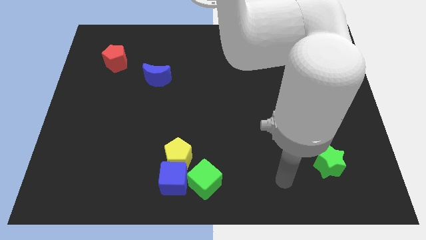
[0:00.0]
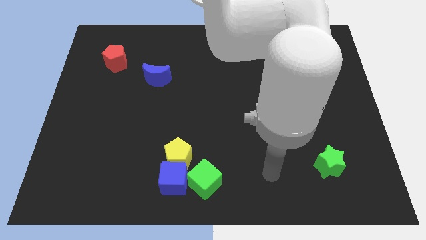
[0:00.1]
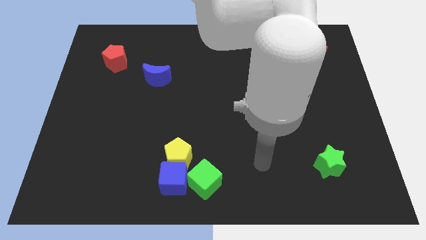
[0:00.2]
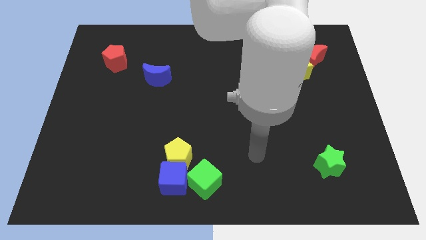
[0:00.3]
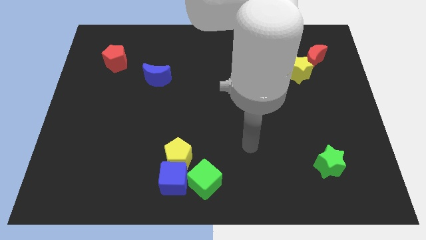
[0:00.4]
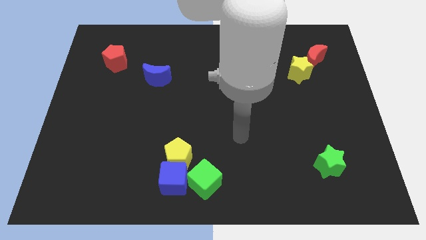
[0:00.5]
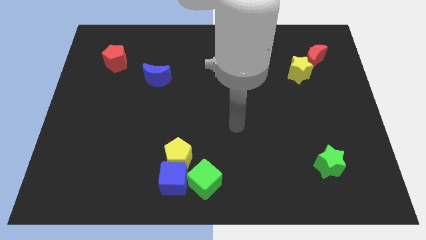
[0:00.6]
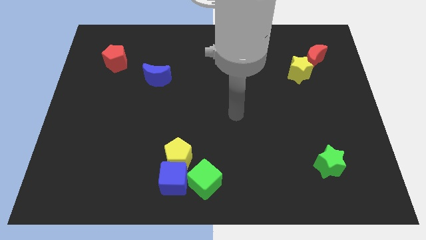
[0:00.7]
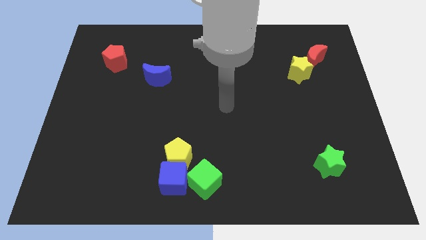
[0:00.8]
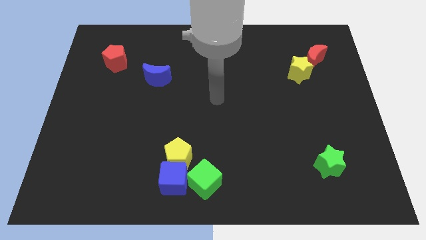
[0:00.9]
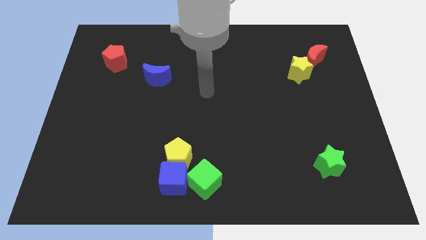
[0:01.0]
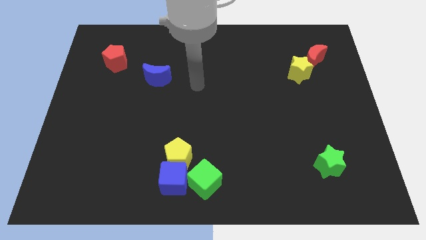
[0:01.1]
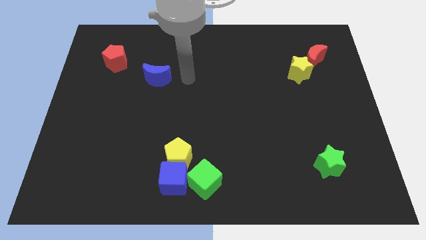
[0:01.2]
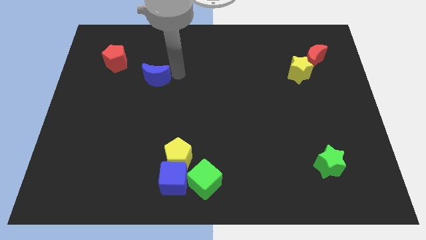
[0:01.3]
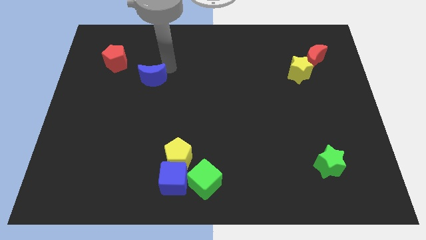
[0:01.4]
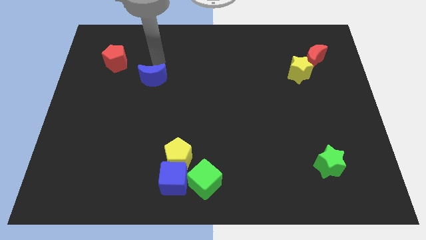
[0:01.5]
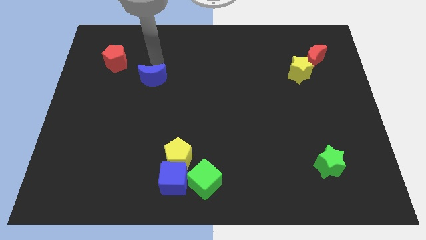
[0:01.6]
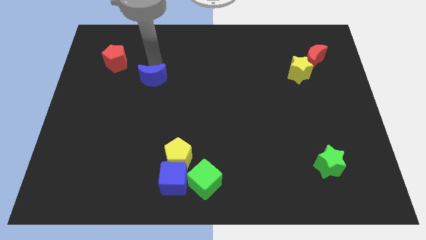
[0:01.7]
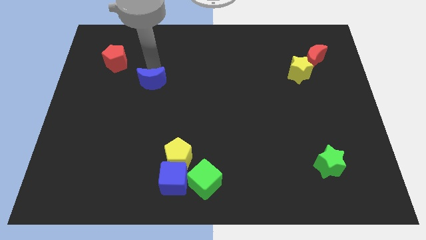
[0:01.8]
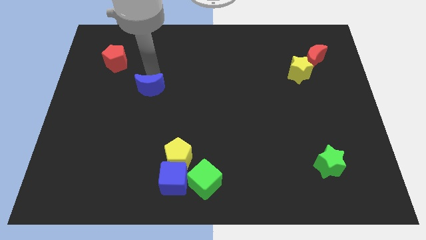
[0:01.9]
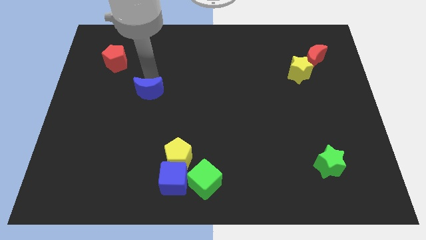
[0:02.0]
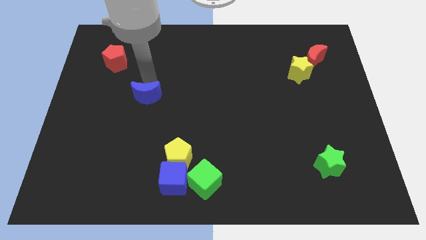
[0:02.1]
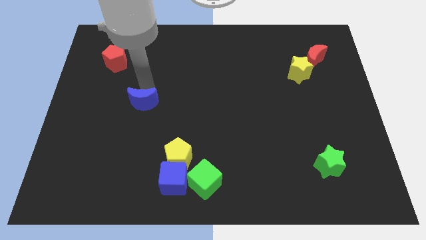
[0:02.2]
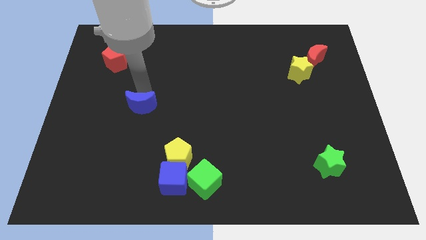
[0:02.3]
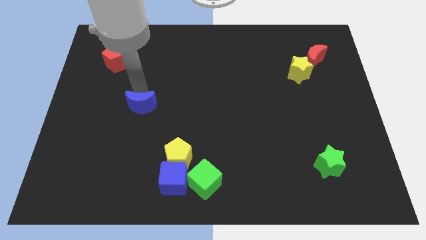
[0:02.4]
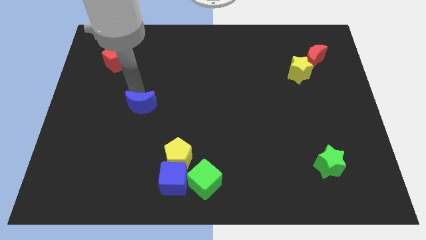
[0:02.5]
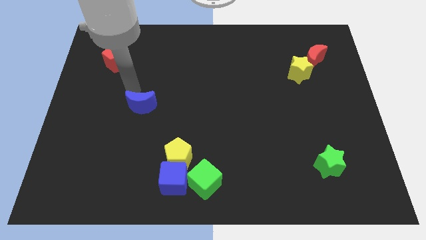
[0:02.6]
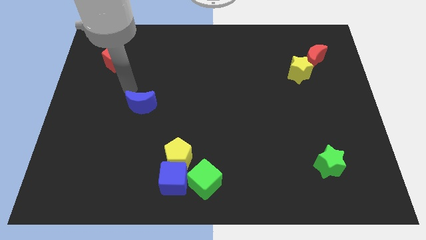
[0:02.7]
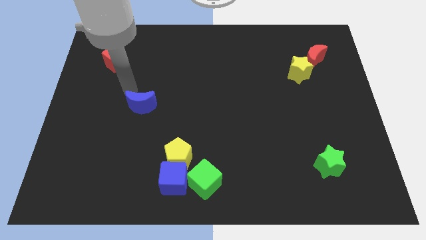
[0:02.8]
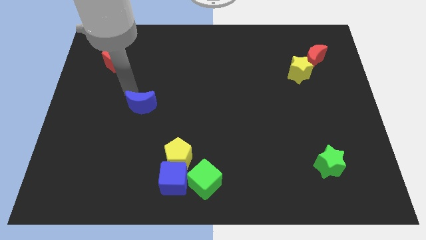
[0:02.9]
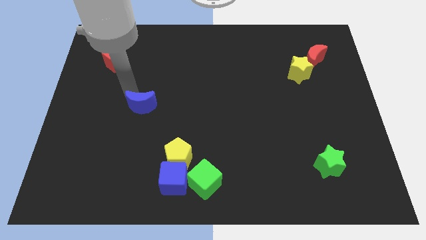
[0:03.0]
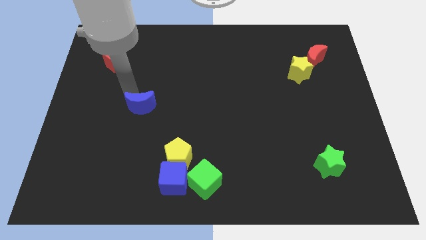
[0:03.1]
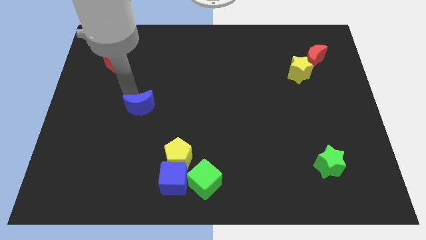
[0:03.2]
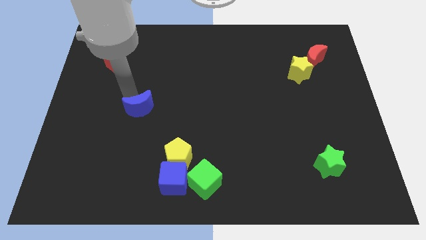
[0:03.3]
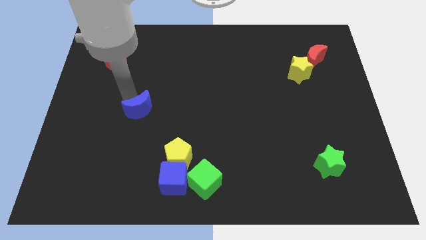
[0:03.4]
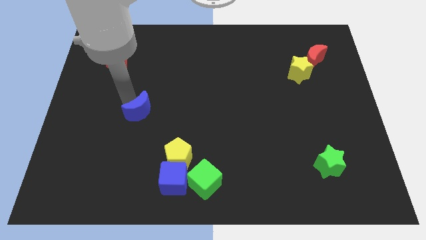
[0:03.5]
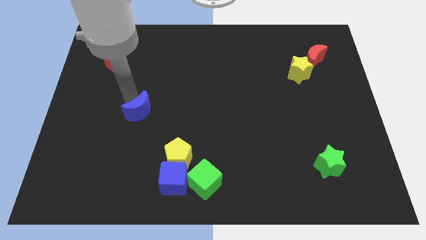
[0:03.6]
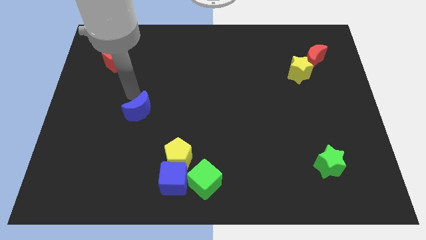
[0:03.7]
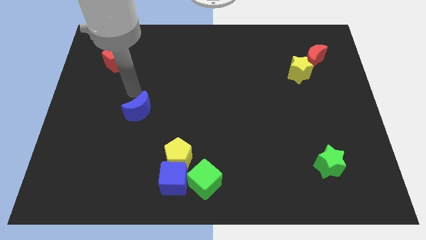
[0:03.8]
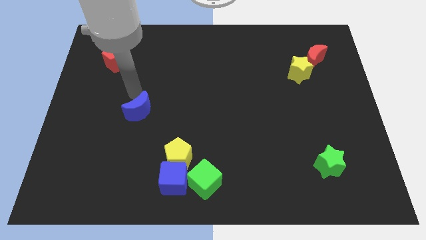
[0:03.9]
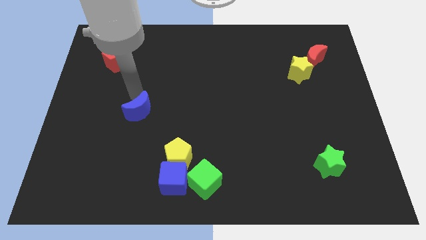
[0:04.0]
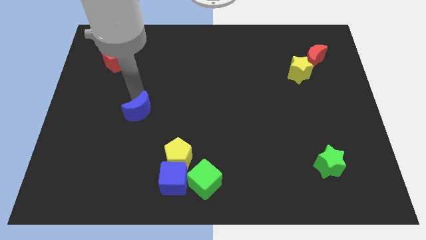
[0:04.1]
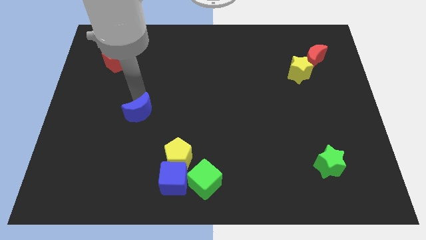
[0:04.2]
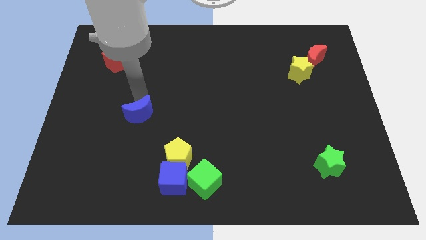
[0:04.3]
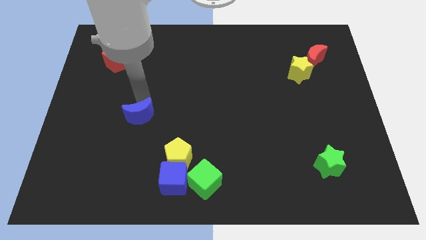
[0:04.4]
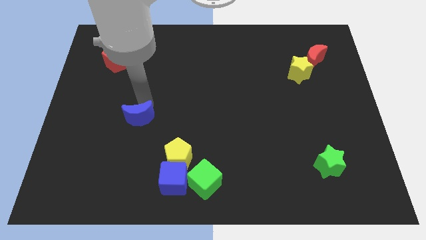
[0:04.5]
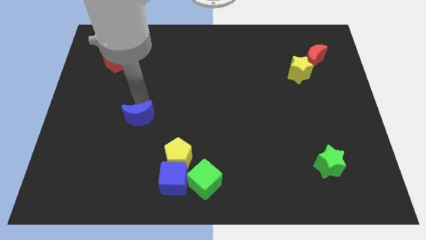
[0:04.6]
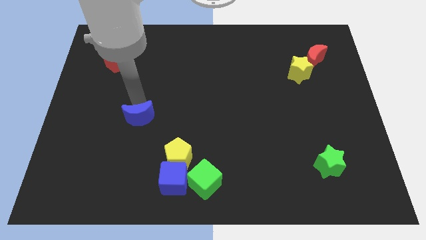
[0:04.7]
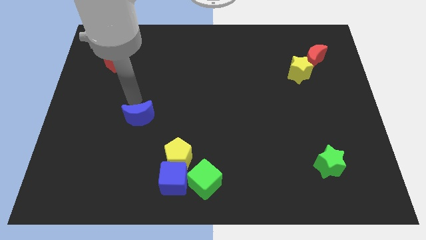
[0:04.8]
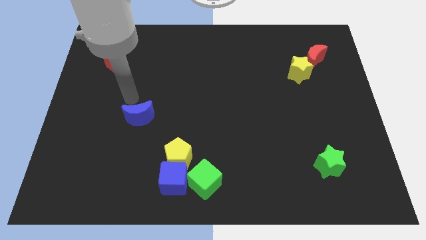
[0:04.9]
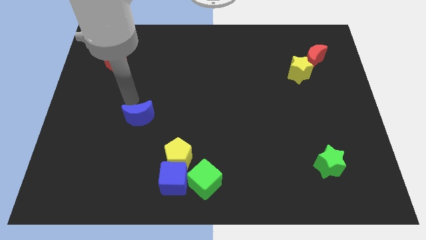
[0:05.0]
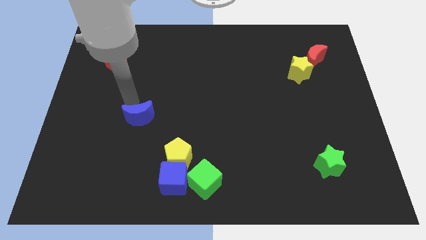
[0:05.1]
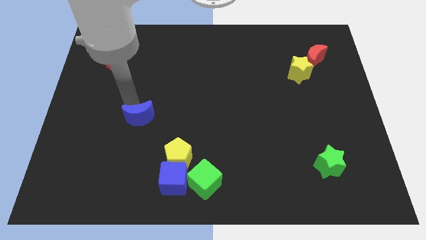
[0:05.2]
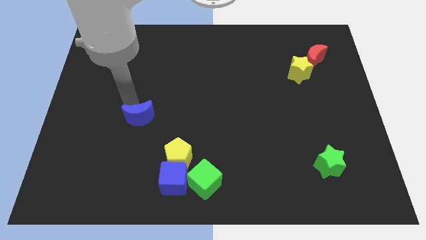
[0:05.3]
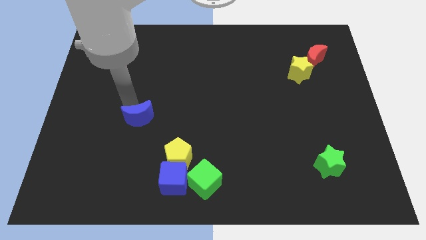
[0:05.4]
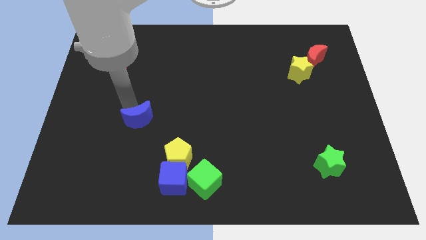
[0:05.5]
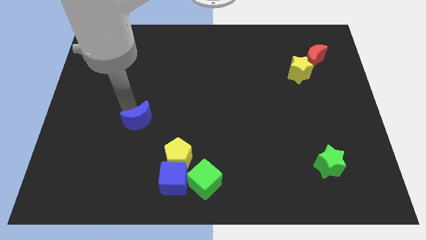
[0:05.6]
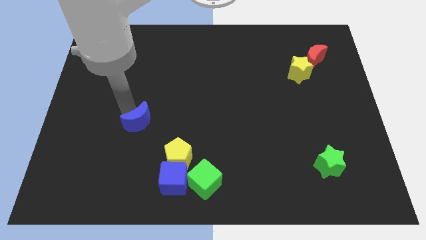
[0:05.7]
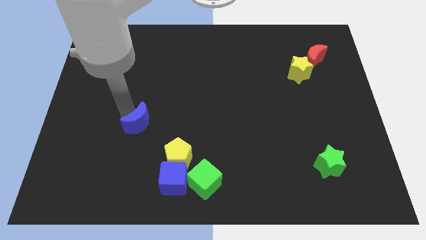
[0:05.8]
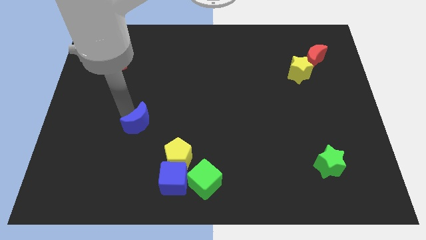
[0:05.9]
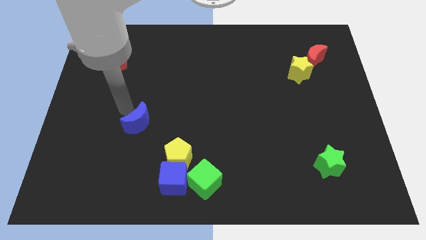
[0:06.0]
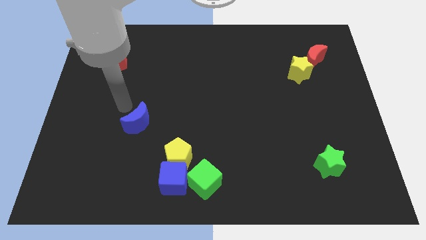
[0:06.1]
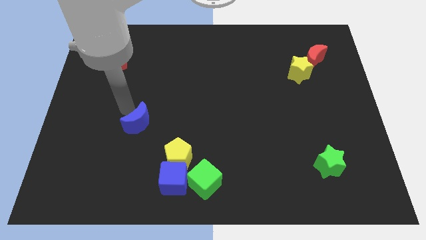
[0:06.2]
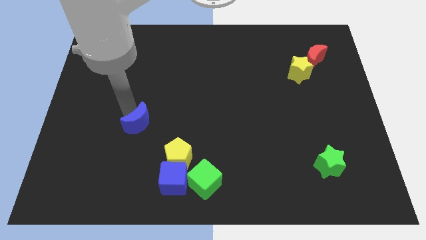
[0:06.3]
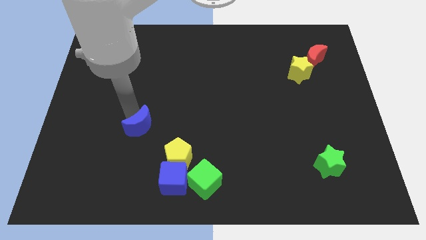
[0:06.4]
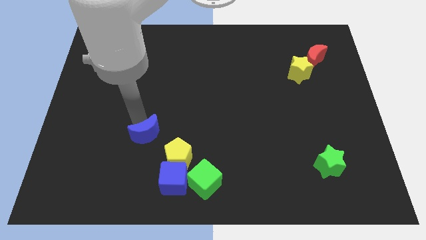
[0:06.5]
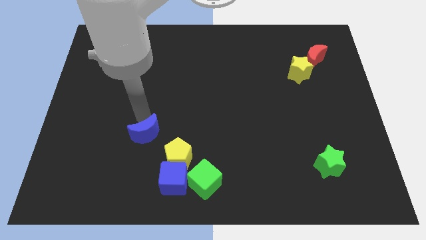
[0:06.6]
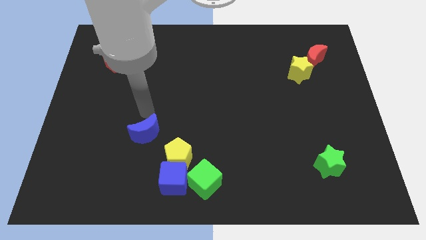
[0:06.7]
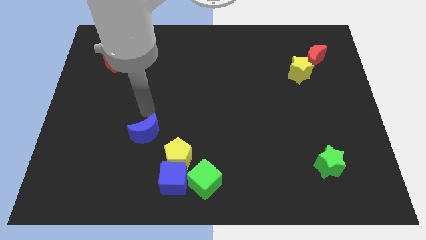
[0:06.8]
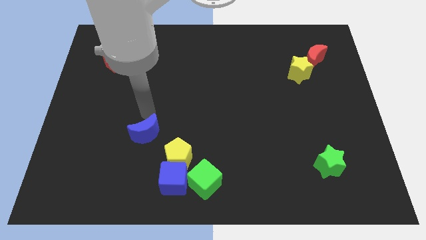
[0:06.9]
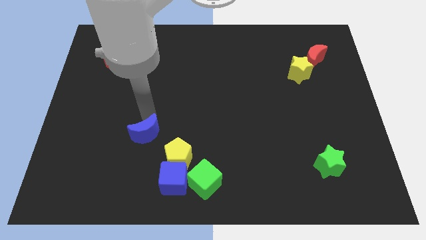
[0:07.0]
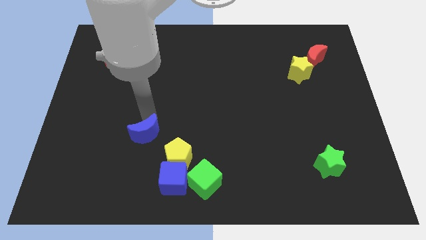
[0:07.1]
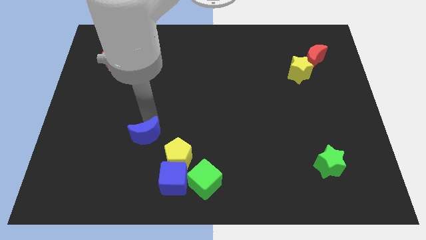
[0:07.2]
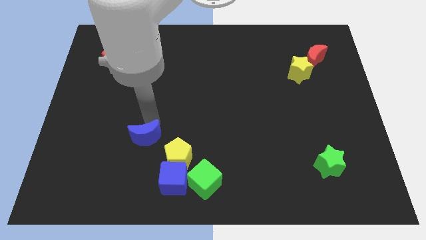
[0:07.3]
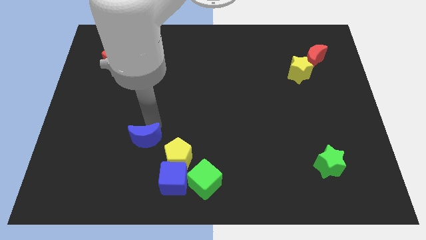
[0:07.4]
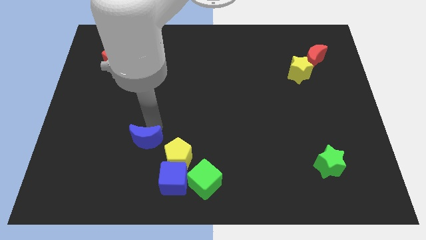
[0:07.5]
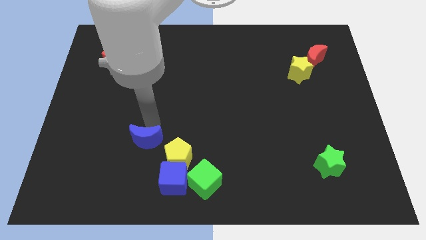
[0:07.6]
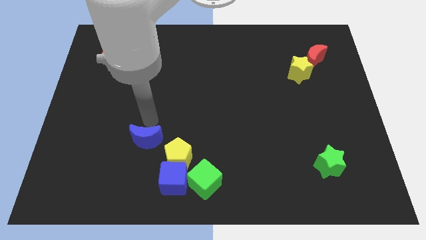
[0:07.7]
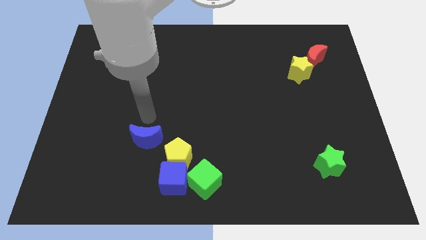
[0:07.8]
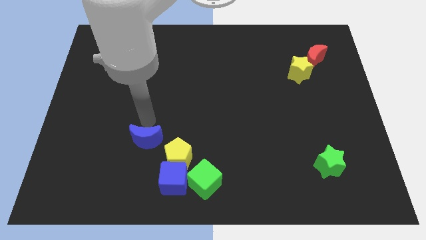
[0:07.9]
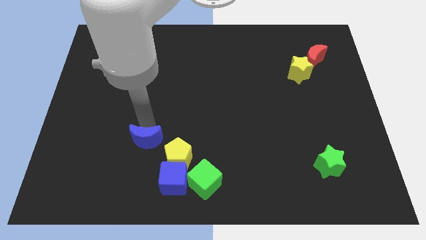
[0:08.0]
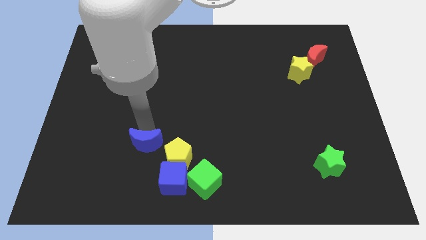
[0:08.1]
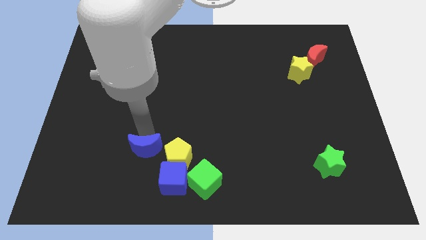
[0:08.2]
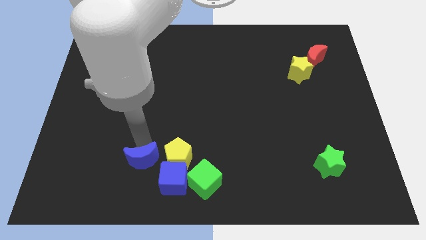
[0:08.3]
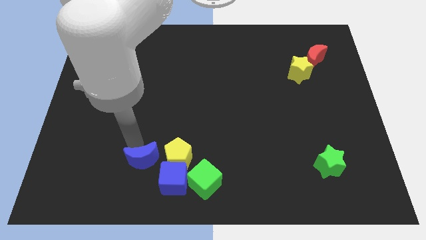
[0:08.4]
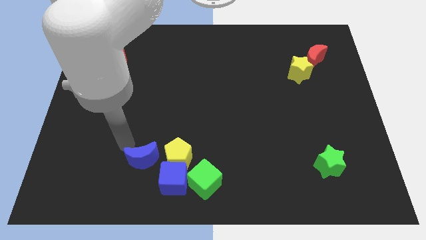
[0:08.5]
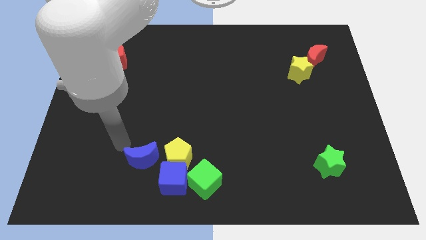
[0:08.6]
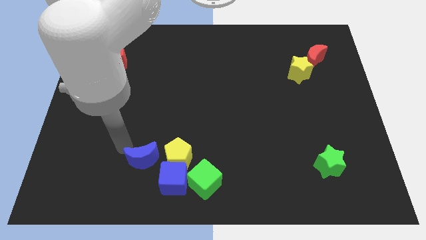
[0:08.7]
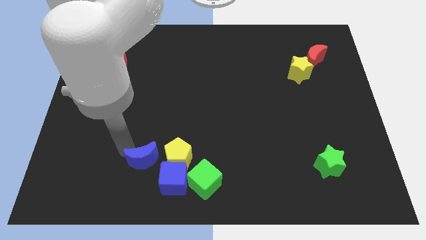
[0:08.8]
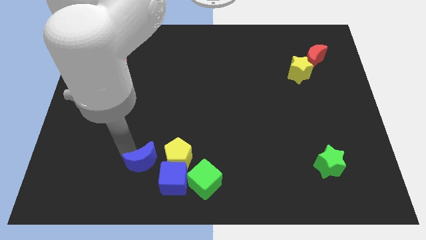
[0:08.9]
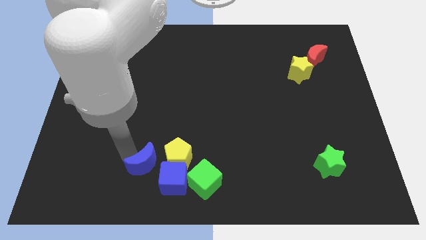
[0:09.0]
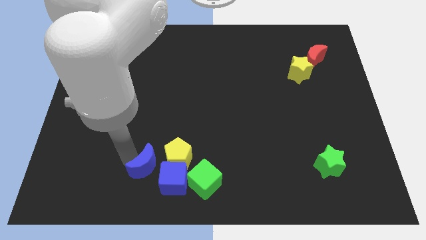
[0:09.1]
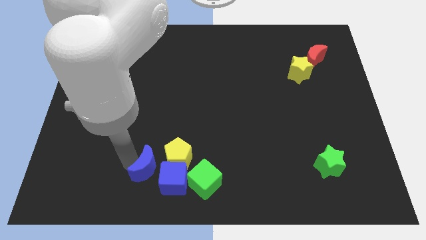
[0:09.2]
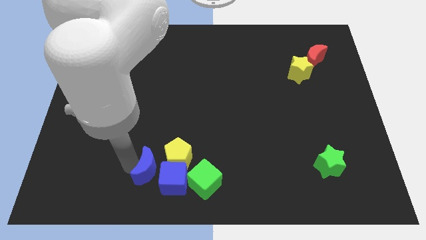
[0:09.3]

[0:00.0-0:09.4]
put the blue moon to the blue cube
